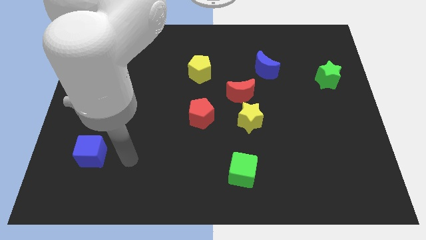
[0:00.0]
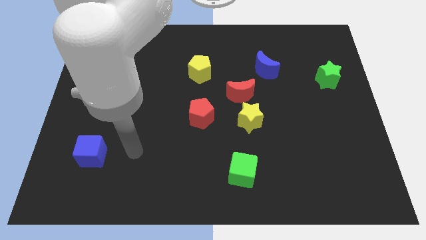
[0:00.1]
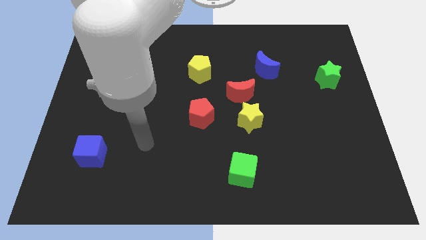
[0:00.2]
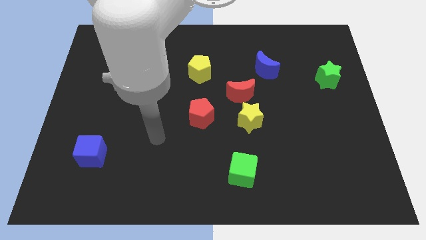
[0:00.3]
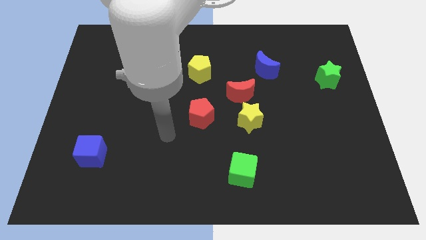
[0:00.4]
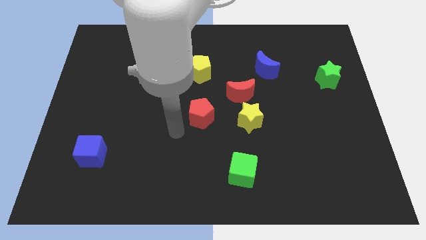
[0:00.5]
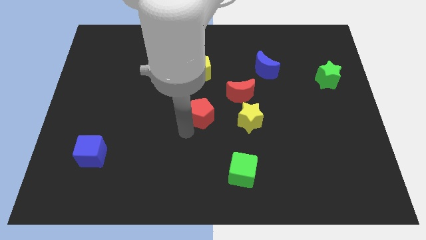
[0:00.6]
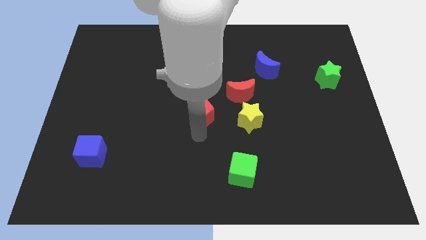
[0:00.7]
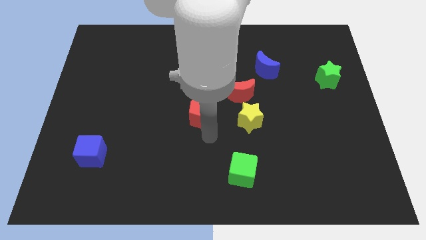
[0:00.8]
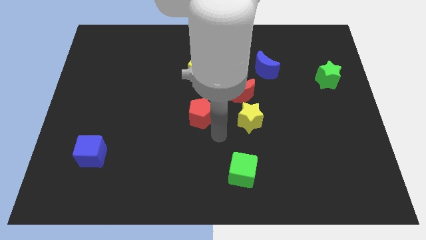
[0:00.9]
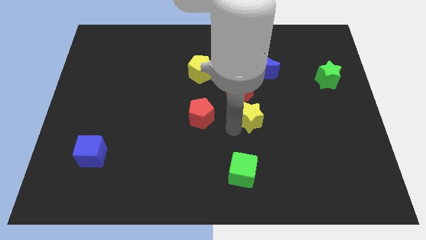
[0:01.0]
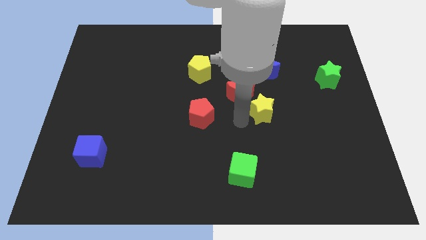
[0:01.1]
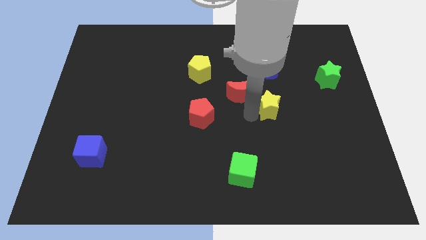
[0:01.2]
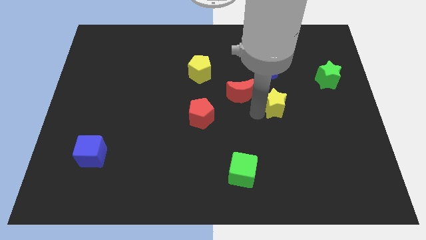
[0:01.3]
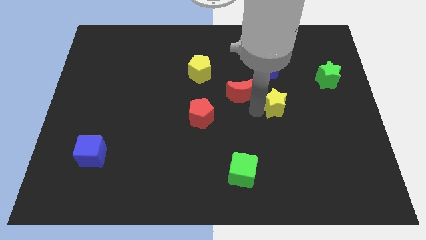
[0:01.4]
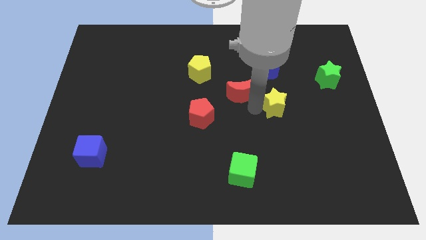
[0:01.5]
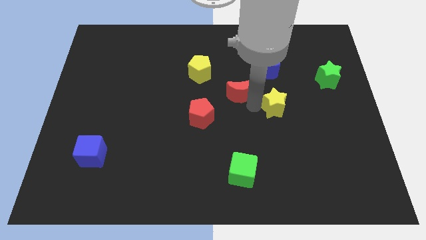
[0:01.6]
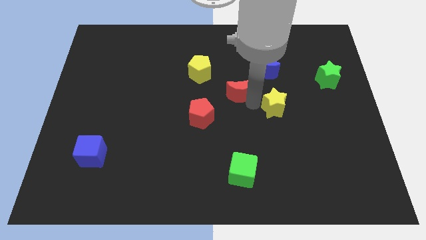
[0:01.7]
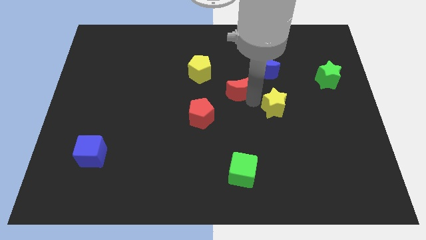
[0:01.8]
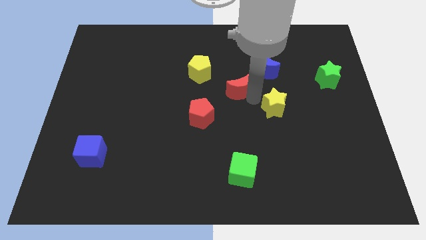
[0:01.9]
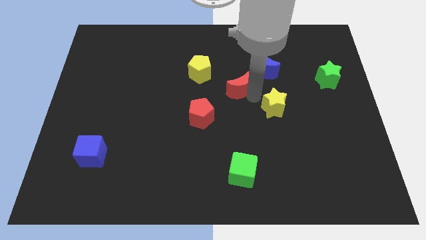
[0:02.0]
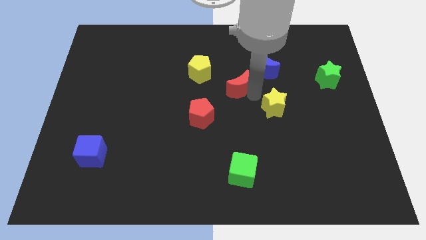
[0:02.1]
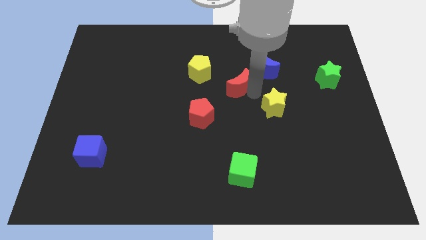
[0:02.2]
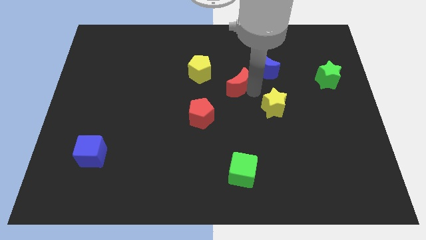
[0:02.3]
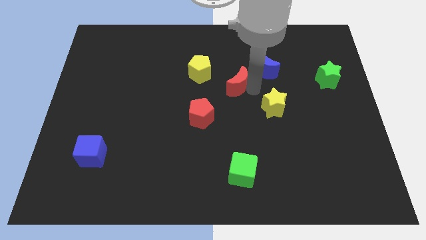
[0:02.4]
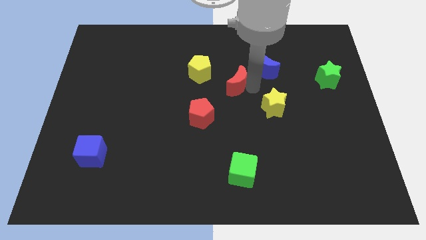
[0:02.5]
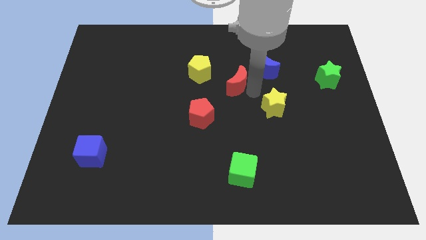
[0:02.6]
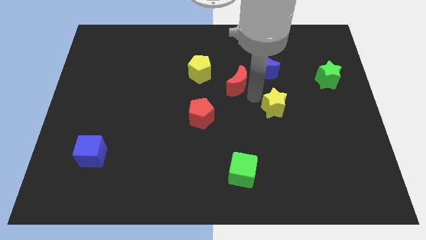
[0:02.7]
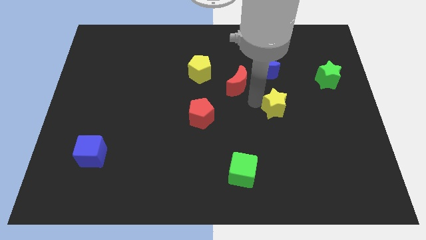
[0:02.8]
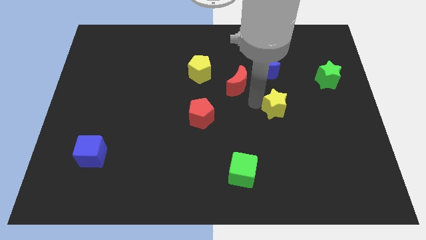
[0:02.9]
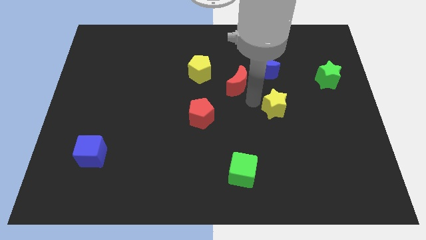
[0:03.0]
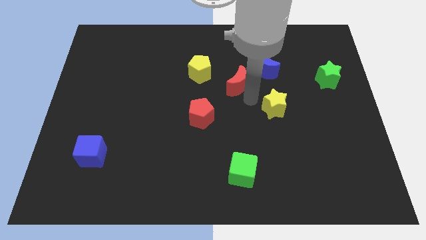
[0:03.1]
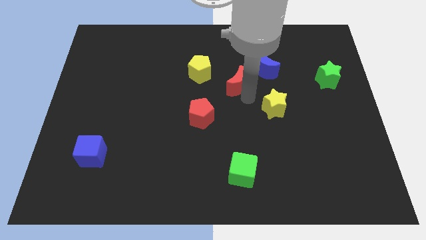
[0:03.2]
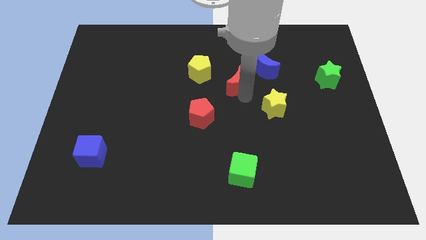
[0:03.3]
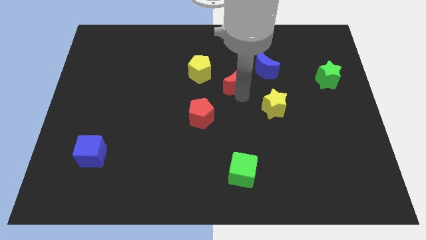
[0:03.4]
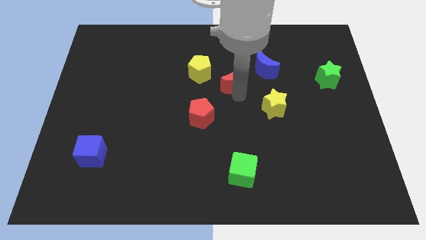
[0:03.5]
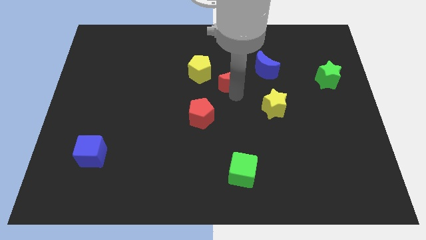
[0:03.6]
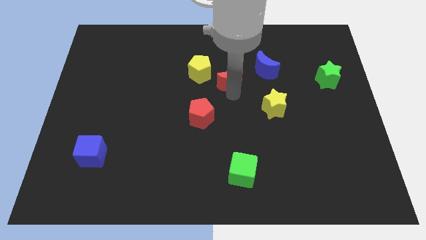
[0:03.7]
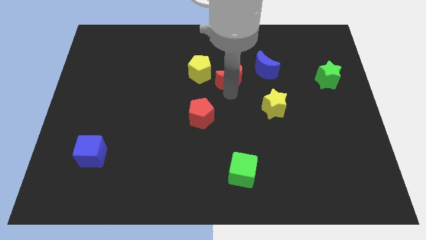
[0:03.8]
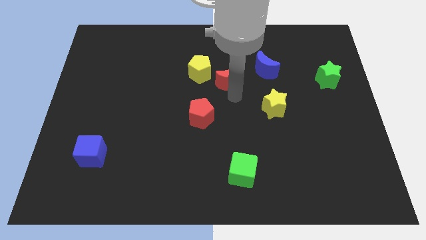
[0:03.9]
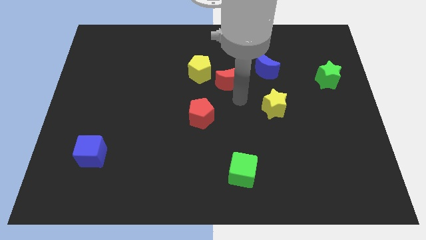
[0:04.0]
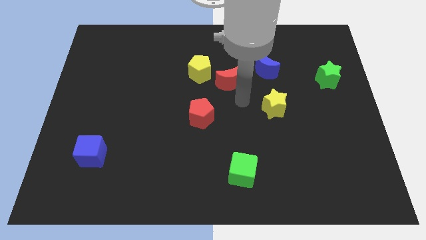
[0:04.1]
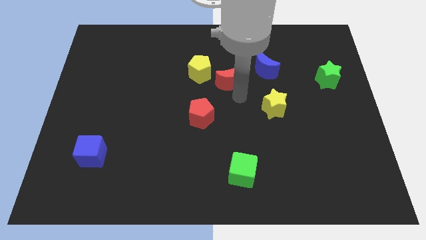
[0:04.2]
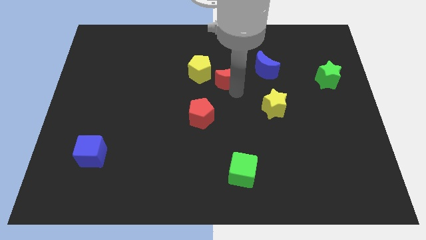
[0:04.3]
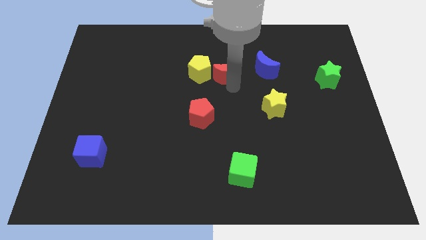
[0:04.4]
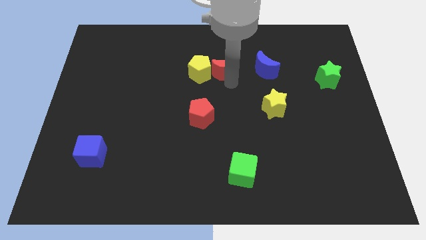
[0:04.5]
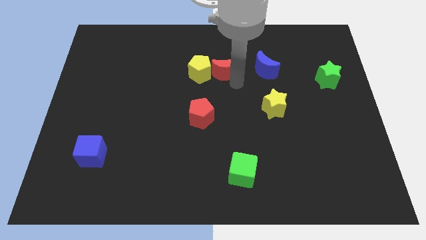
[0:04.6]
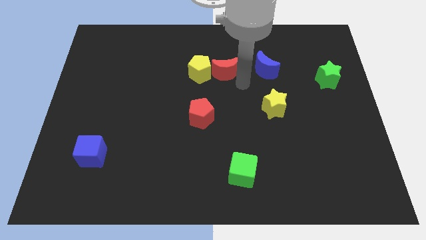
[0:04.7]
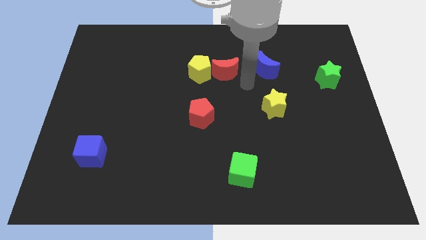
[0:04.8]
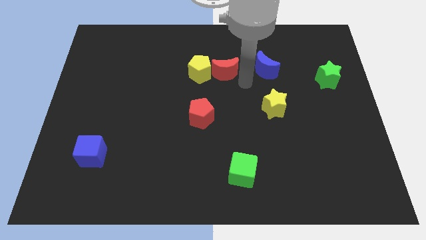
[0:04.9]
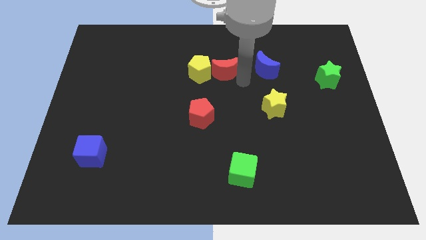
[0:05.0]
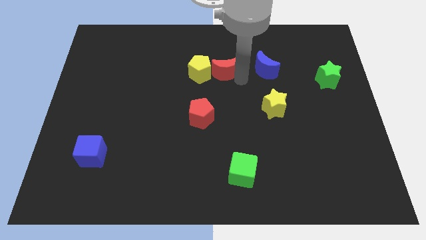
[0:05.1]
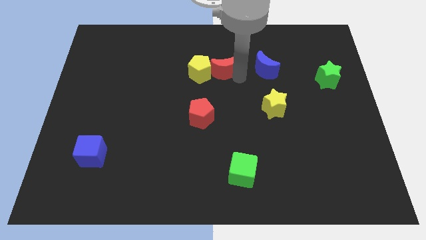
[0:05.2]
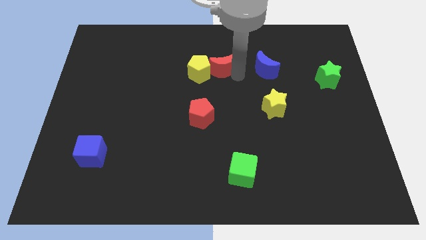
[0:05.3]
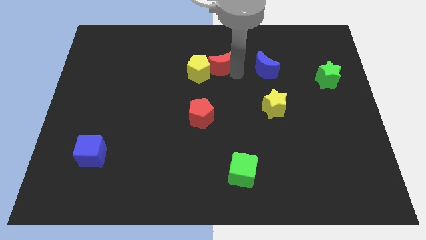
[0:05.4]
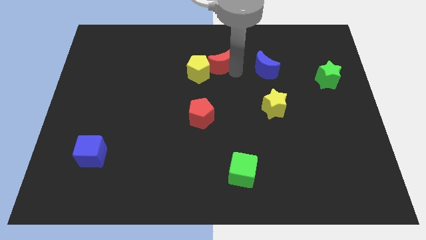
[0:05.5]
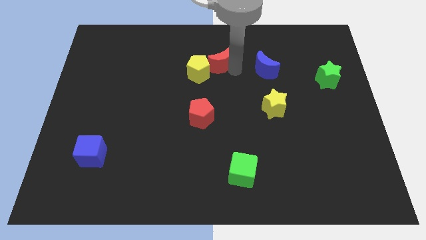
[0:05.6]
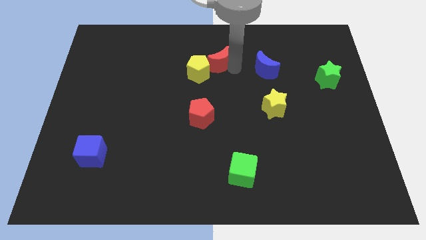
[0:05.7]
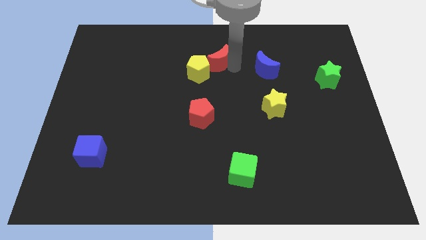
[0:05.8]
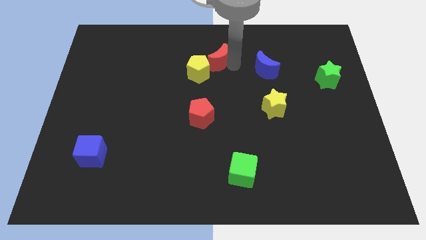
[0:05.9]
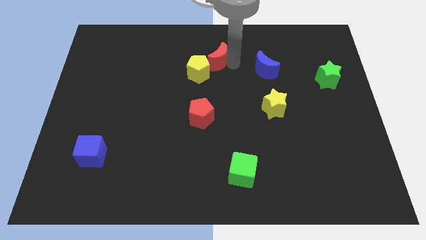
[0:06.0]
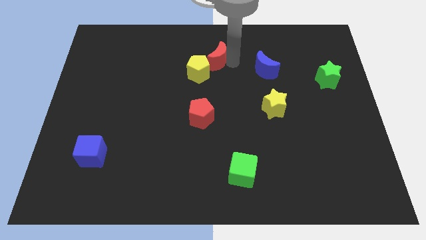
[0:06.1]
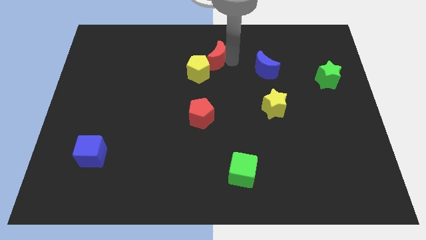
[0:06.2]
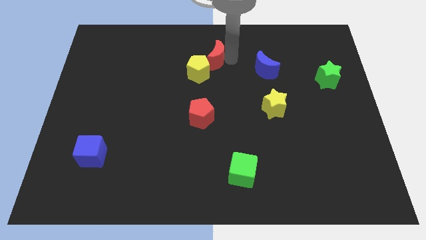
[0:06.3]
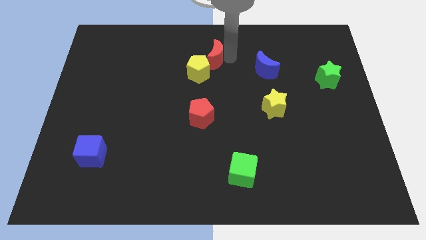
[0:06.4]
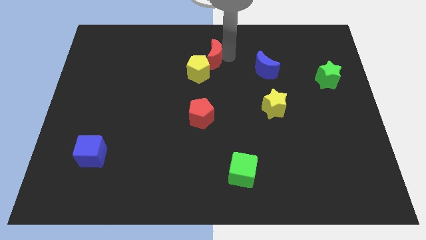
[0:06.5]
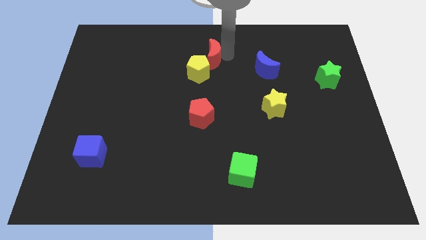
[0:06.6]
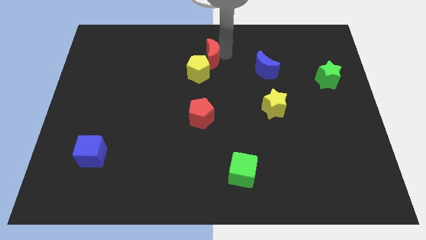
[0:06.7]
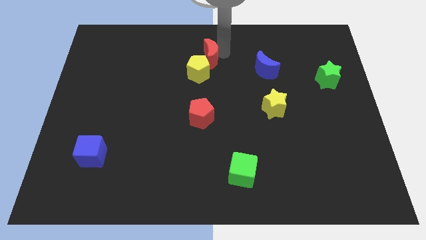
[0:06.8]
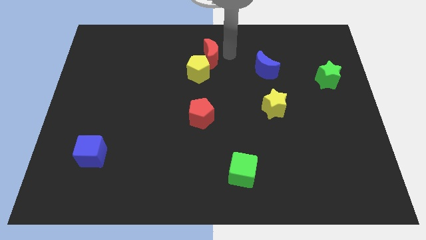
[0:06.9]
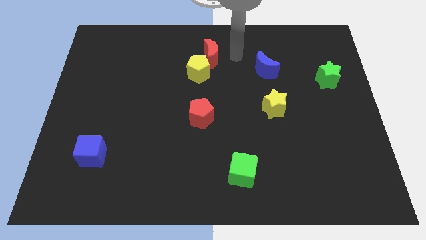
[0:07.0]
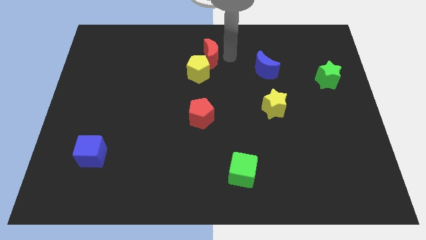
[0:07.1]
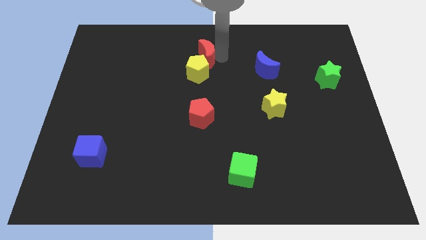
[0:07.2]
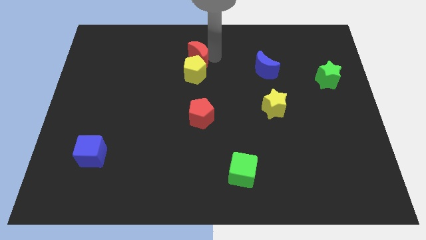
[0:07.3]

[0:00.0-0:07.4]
slide the red moon to the top left of the yellow pentagon

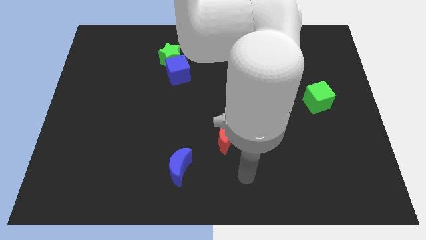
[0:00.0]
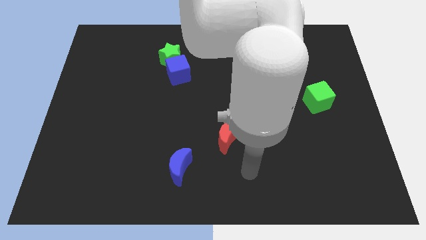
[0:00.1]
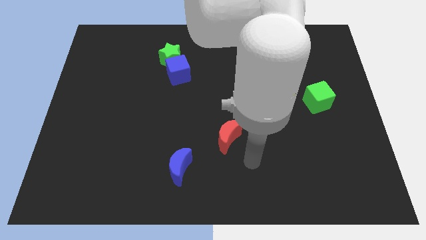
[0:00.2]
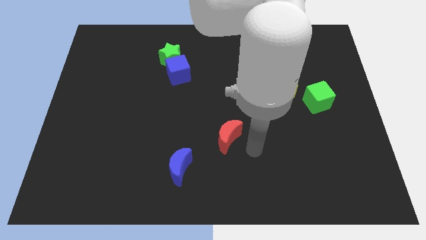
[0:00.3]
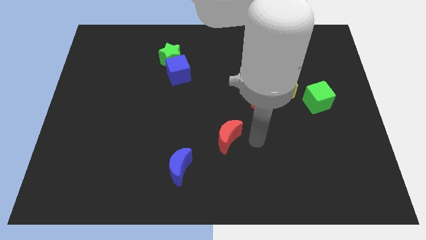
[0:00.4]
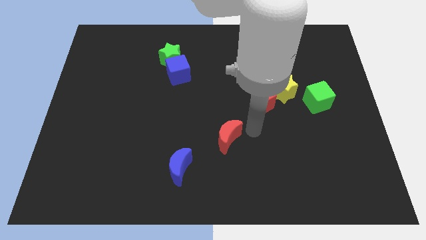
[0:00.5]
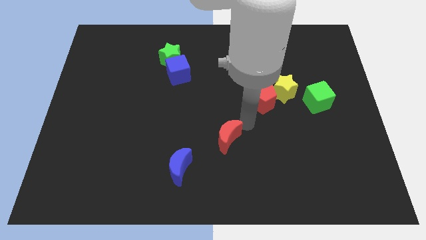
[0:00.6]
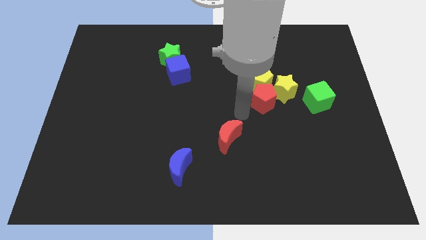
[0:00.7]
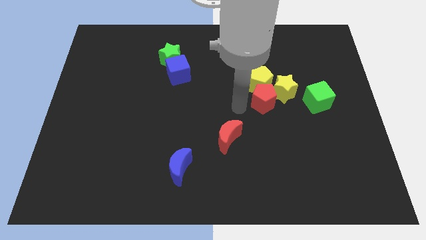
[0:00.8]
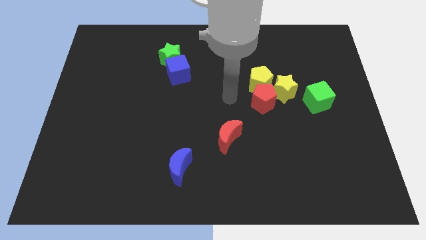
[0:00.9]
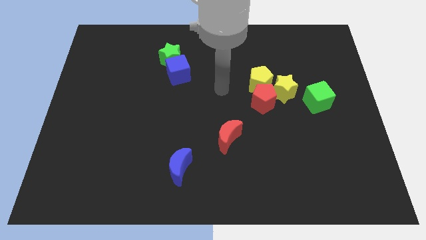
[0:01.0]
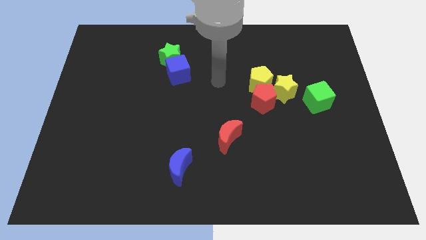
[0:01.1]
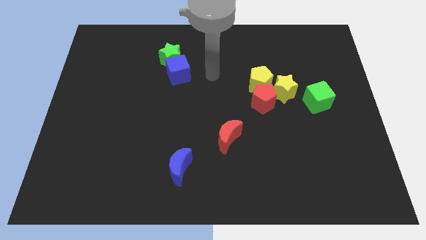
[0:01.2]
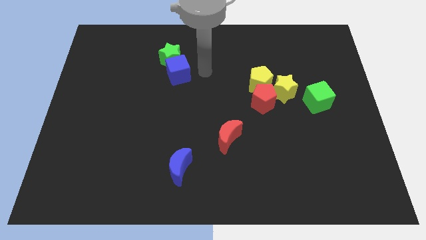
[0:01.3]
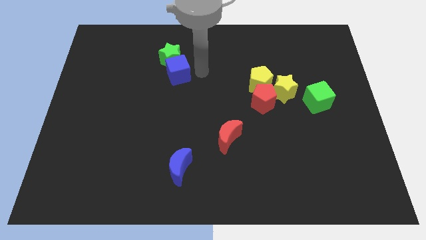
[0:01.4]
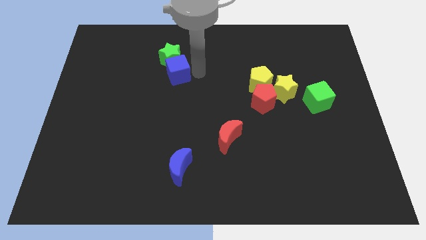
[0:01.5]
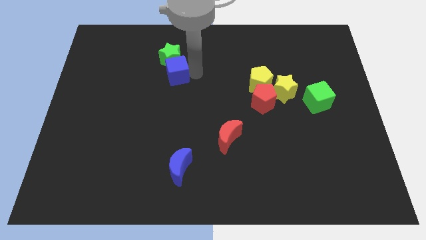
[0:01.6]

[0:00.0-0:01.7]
move the blue cube diagonally down and to the left of the green star
